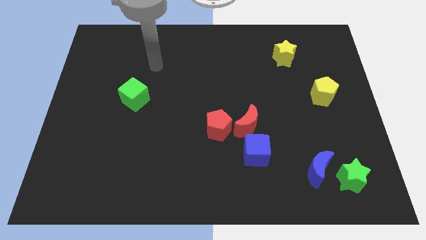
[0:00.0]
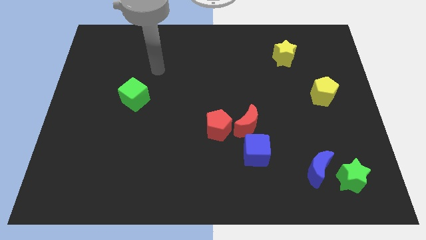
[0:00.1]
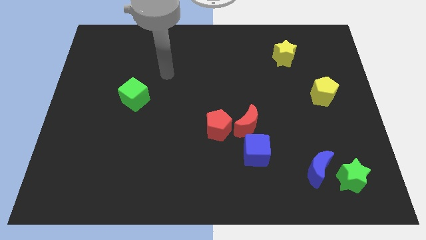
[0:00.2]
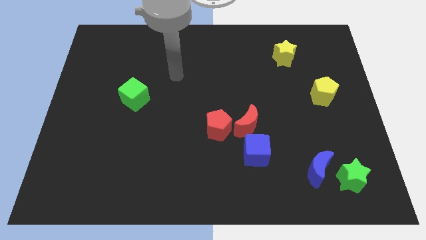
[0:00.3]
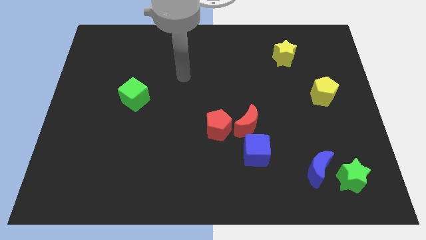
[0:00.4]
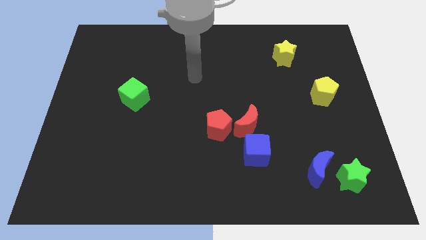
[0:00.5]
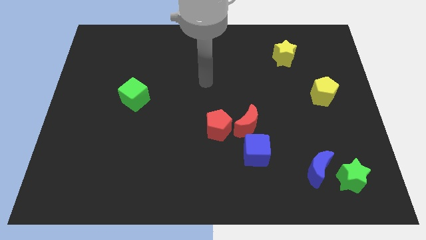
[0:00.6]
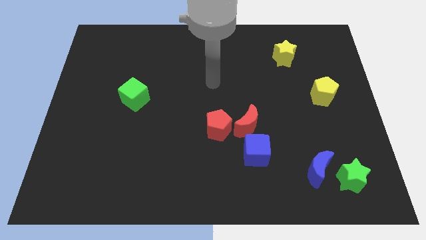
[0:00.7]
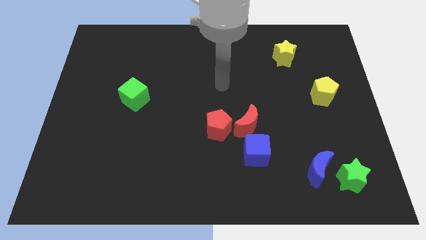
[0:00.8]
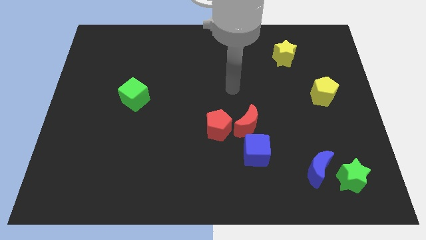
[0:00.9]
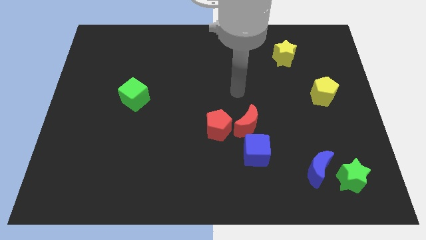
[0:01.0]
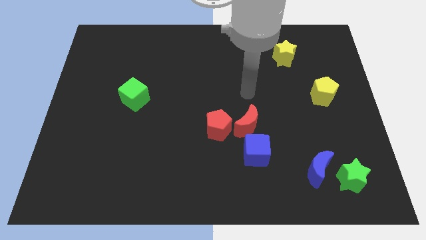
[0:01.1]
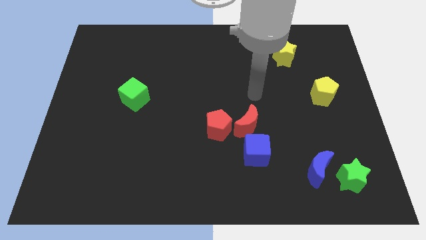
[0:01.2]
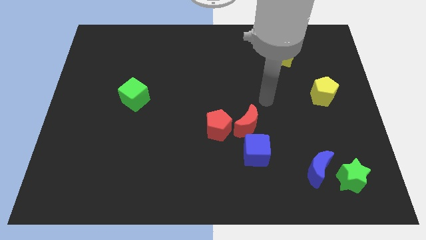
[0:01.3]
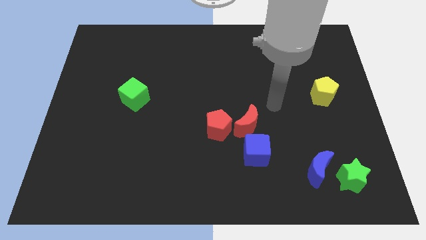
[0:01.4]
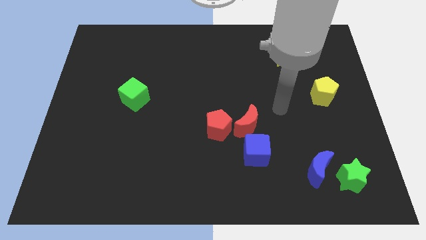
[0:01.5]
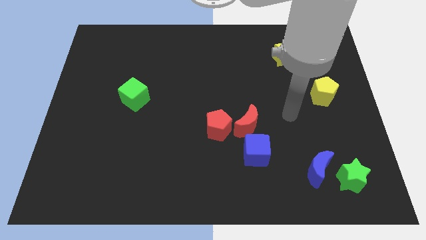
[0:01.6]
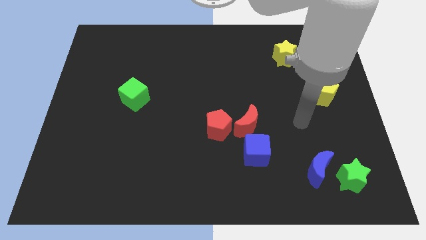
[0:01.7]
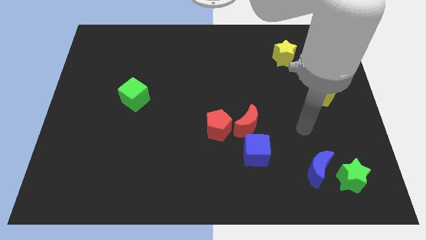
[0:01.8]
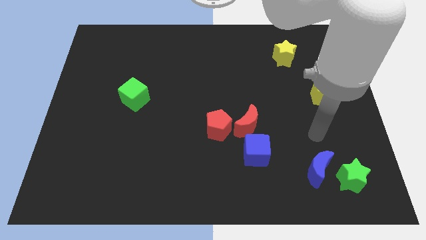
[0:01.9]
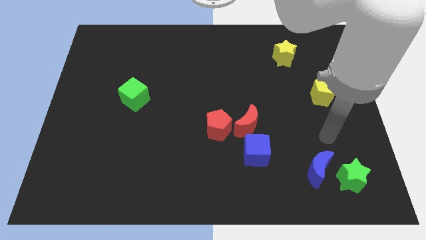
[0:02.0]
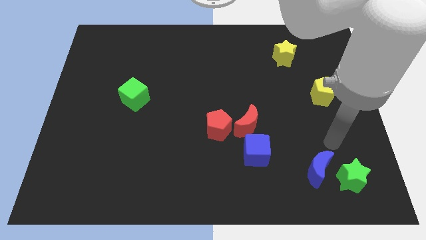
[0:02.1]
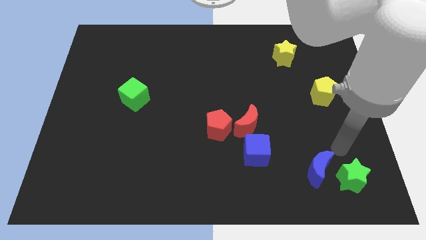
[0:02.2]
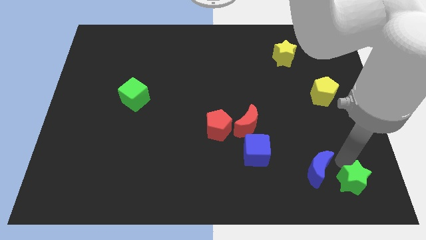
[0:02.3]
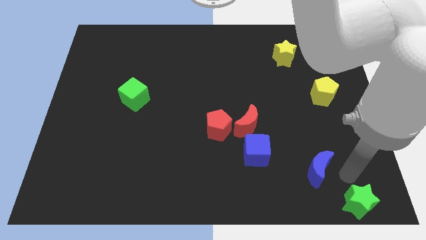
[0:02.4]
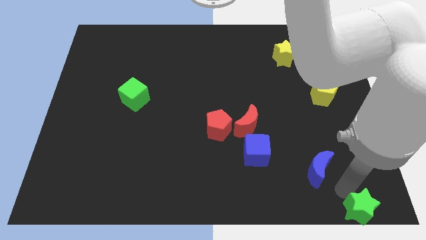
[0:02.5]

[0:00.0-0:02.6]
move the blue moon away from the green star

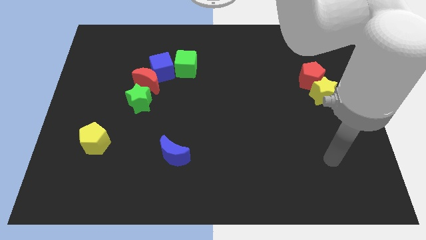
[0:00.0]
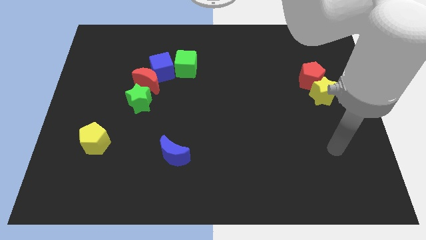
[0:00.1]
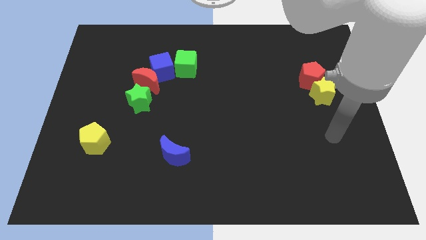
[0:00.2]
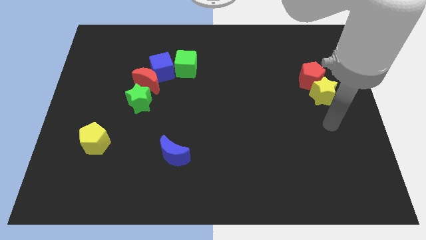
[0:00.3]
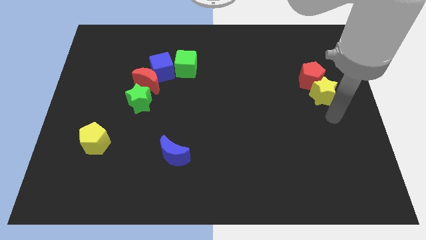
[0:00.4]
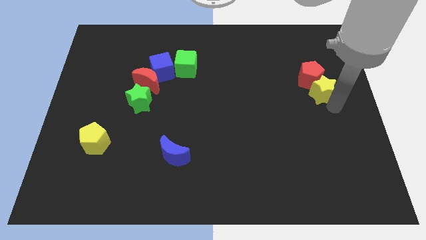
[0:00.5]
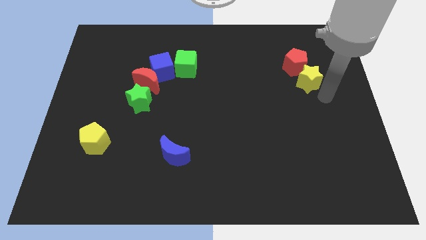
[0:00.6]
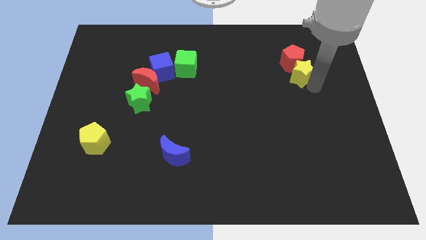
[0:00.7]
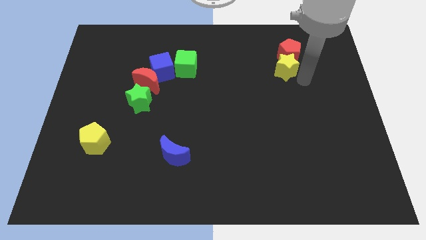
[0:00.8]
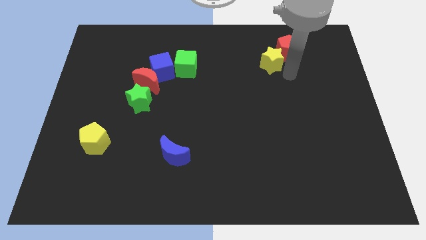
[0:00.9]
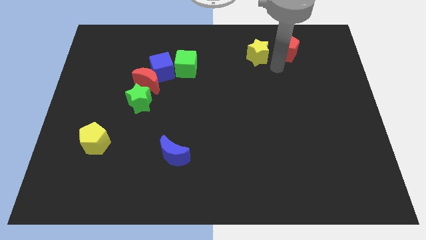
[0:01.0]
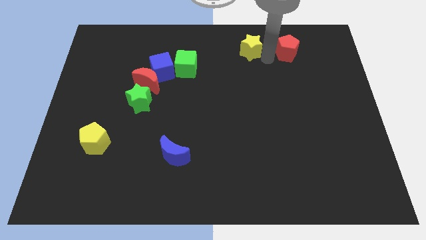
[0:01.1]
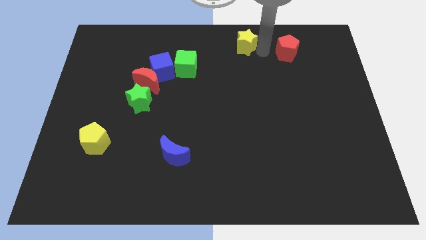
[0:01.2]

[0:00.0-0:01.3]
separate the red pentagon from the yellow star

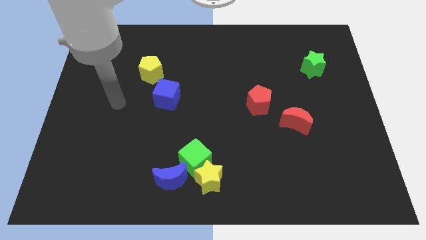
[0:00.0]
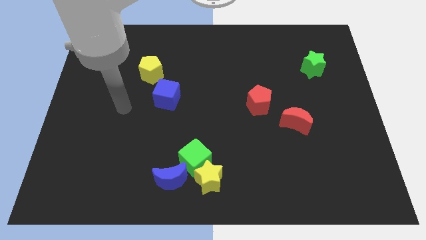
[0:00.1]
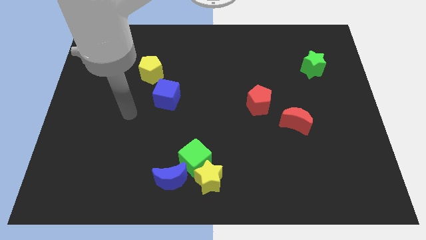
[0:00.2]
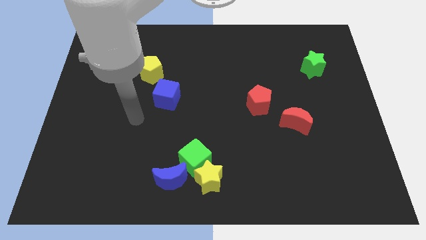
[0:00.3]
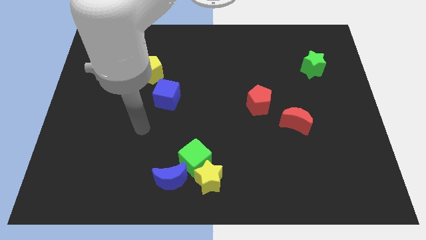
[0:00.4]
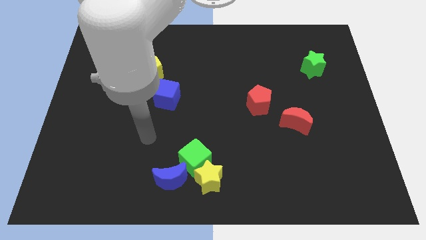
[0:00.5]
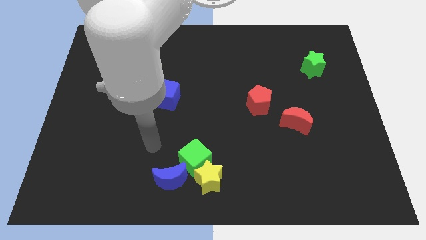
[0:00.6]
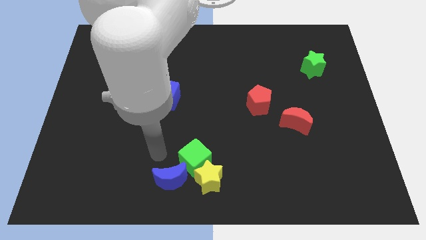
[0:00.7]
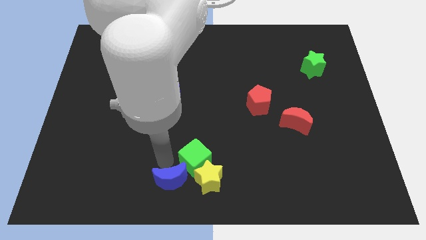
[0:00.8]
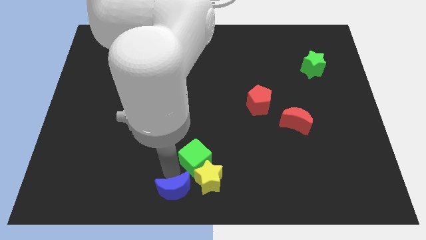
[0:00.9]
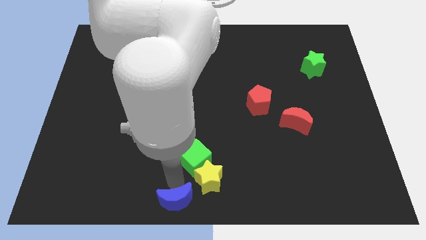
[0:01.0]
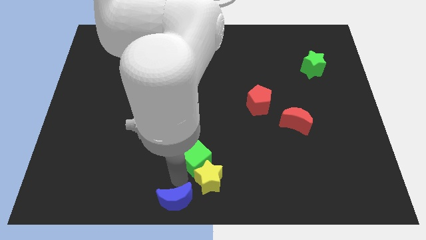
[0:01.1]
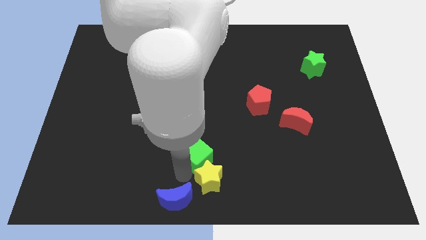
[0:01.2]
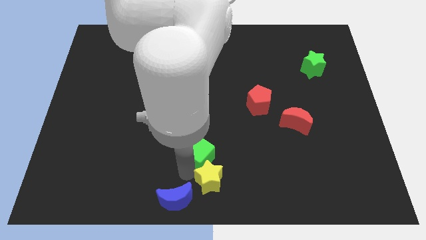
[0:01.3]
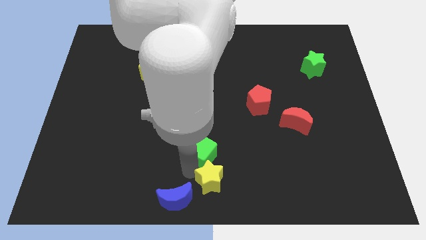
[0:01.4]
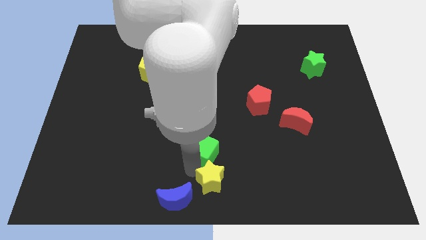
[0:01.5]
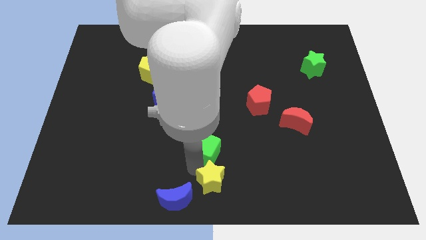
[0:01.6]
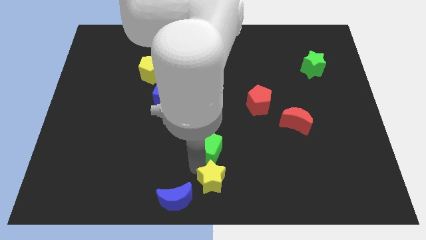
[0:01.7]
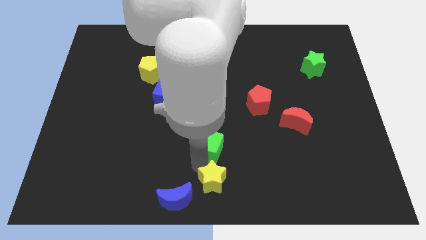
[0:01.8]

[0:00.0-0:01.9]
move the green cube away from the yellow star and blue moon

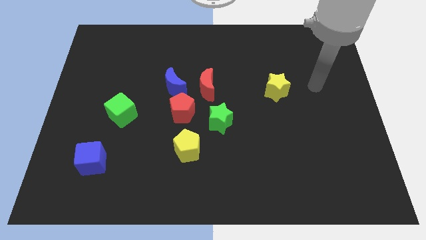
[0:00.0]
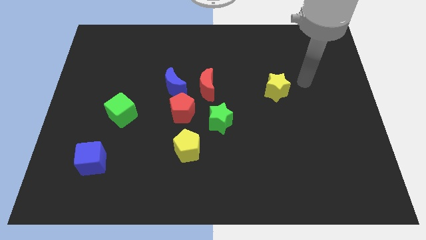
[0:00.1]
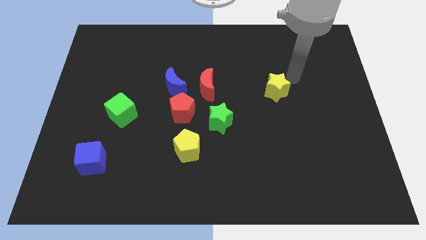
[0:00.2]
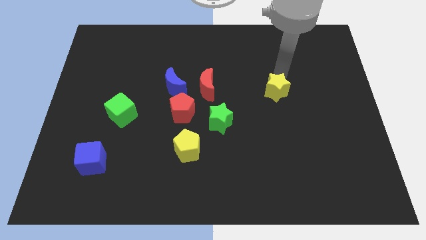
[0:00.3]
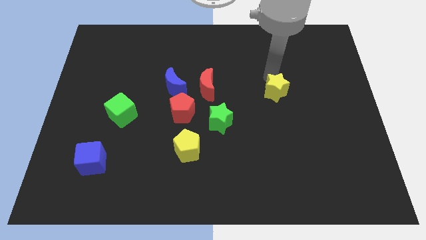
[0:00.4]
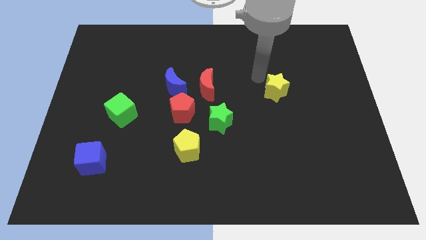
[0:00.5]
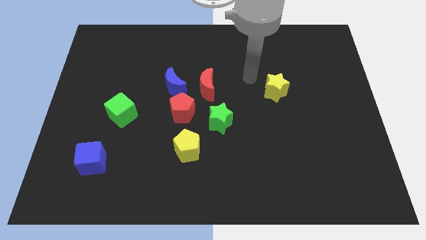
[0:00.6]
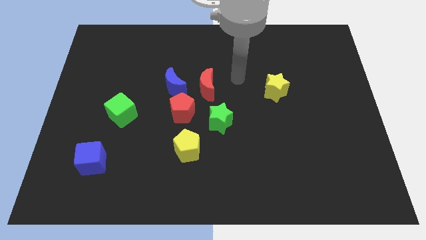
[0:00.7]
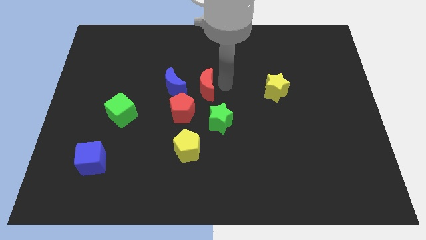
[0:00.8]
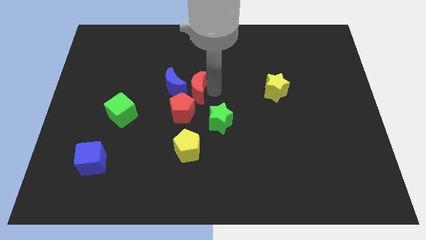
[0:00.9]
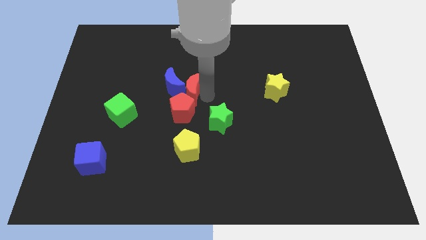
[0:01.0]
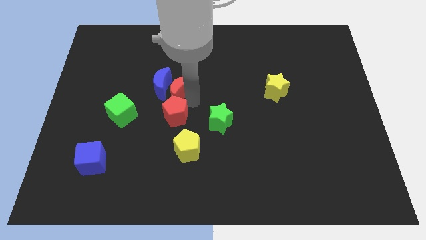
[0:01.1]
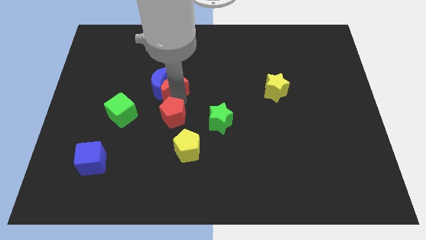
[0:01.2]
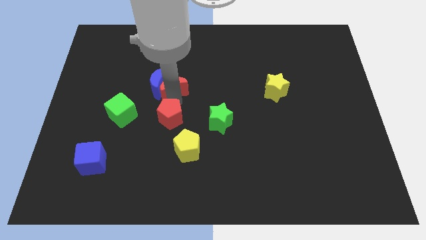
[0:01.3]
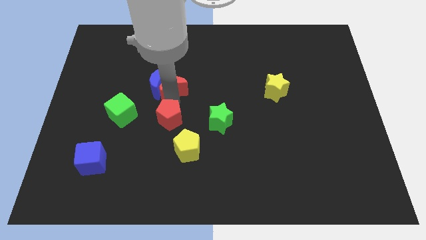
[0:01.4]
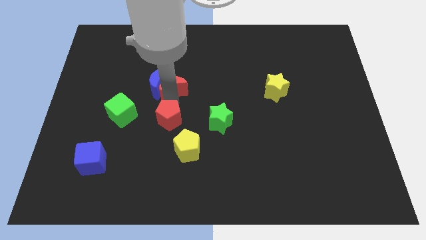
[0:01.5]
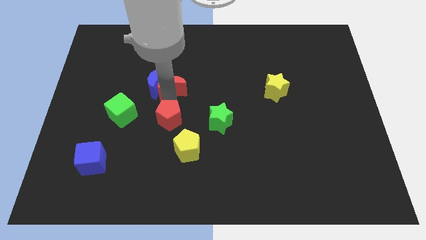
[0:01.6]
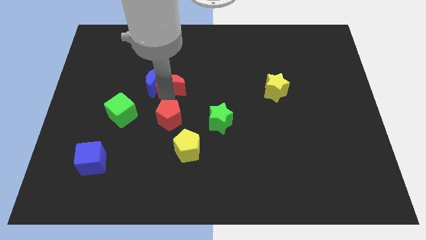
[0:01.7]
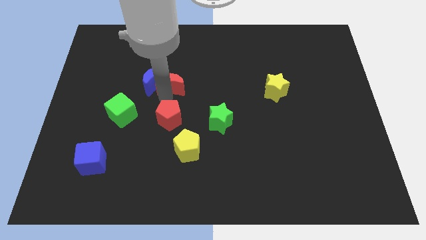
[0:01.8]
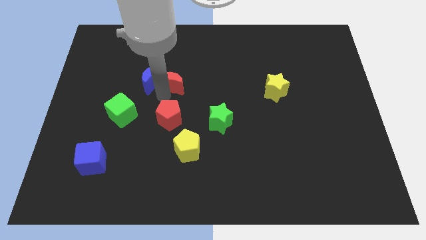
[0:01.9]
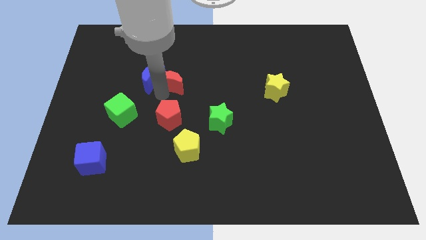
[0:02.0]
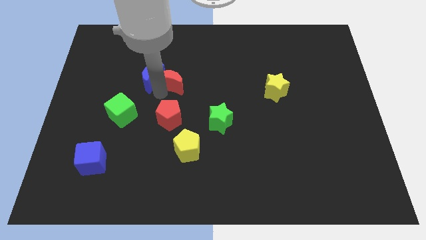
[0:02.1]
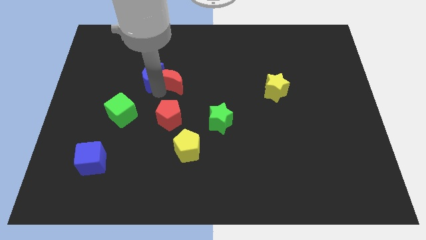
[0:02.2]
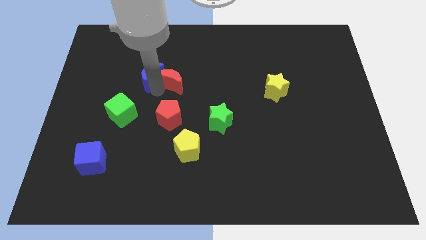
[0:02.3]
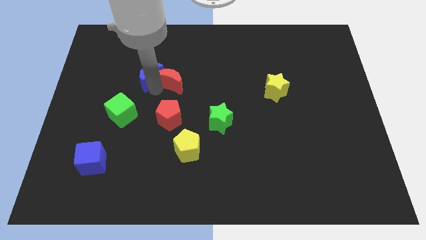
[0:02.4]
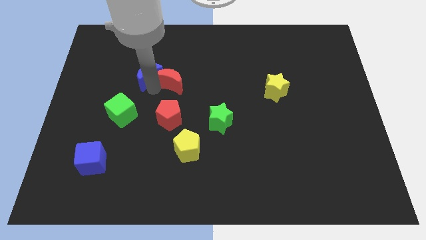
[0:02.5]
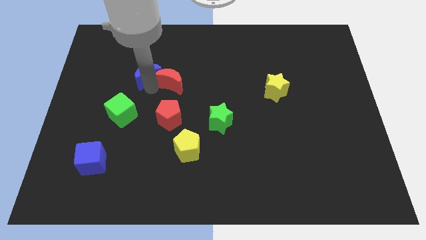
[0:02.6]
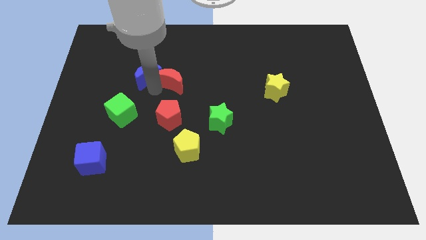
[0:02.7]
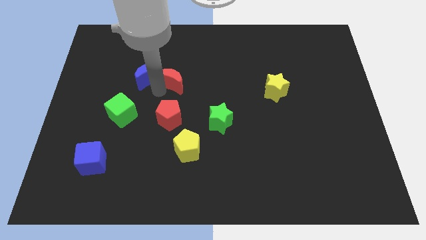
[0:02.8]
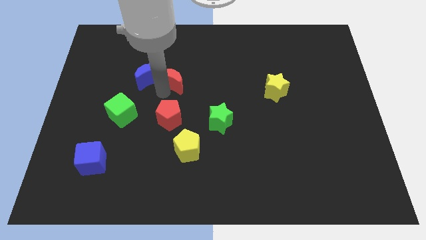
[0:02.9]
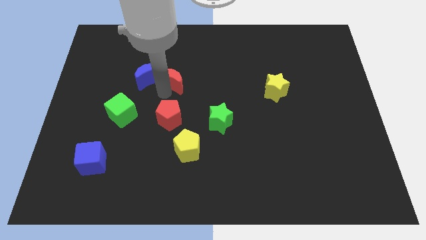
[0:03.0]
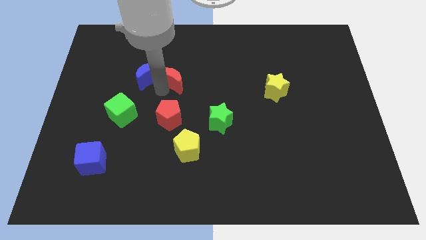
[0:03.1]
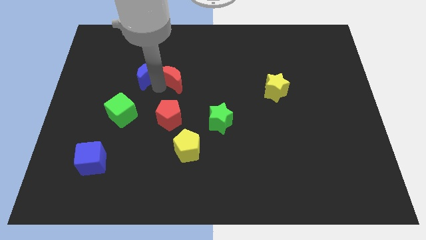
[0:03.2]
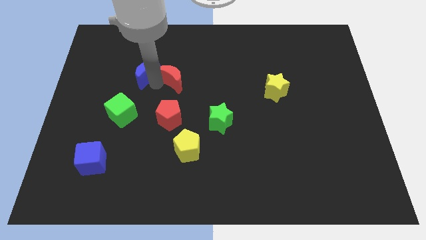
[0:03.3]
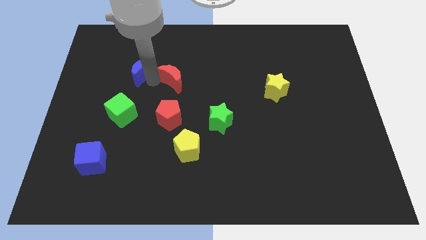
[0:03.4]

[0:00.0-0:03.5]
move the blue moon away from the red pentagon and red moon
